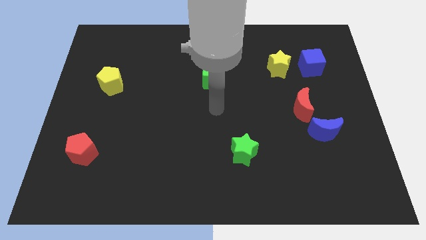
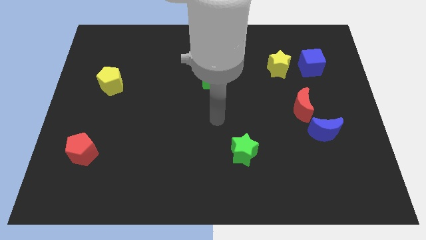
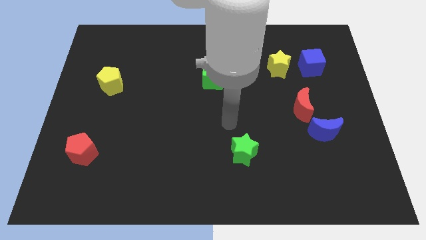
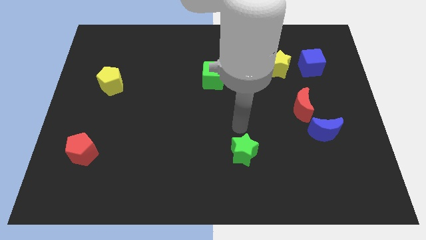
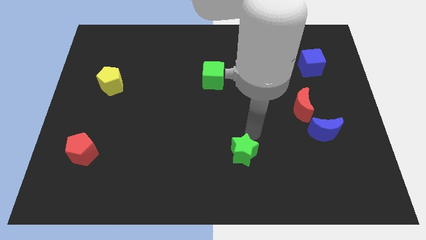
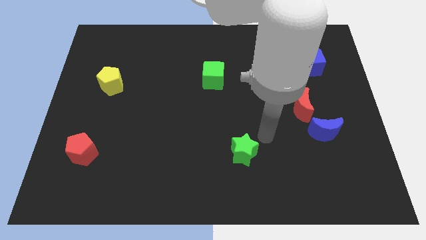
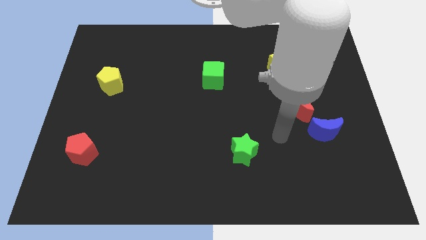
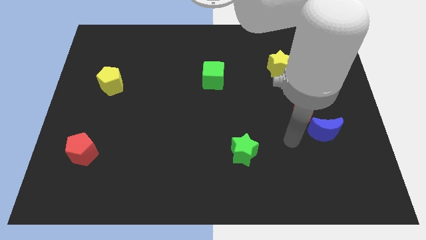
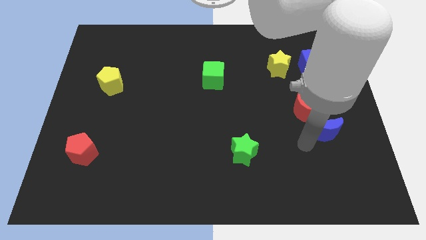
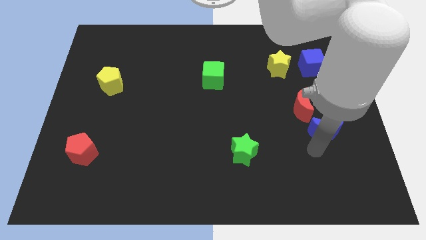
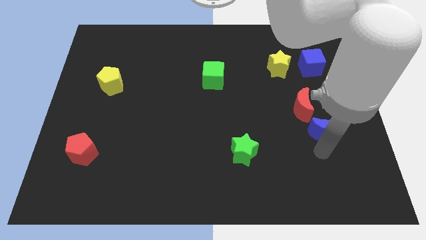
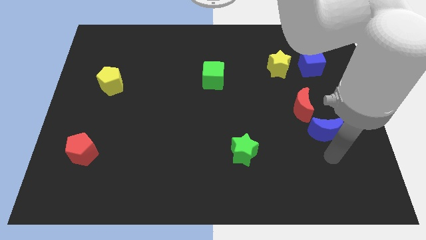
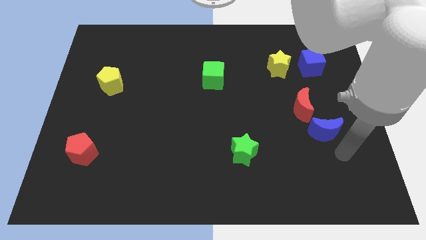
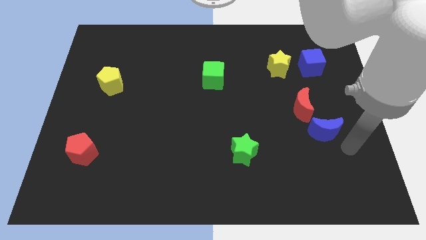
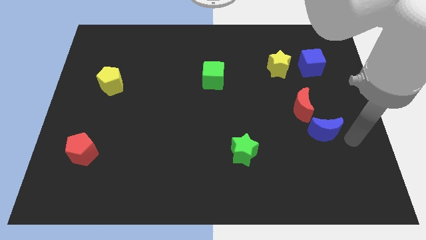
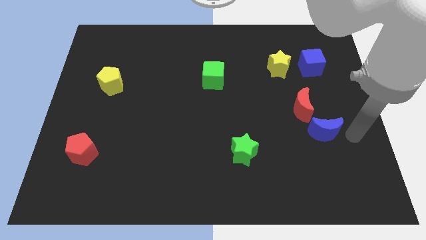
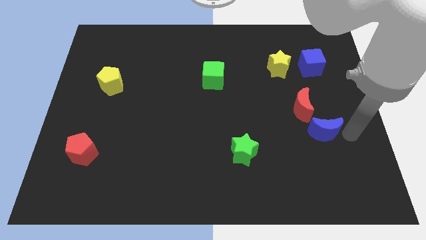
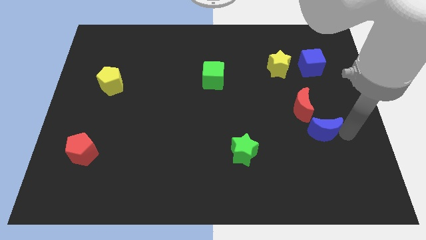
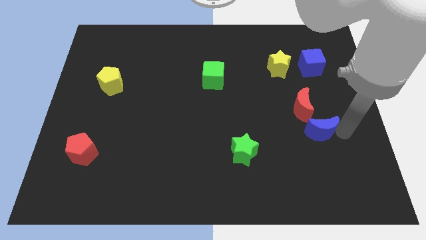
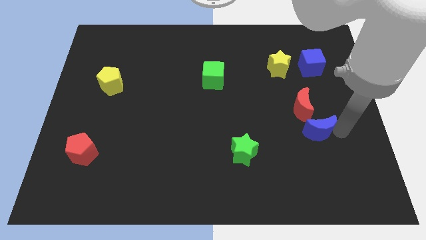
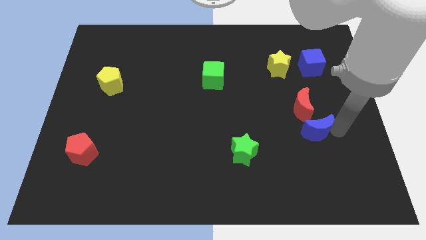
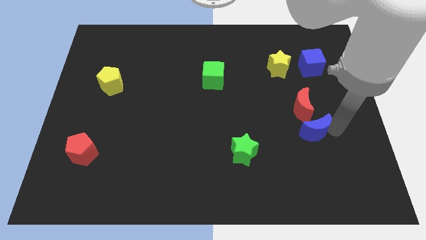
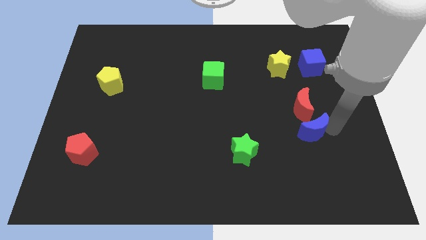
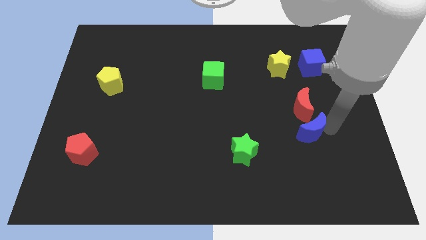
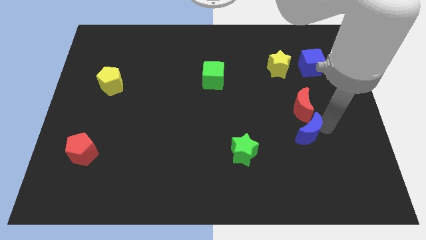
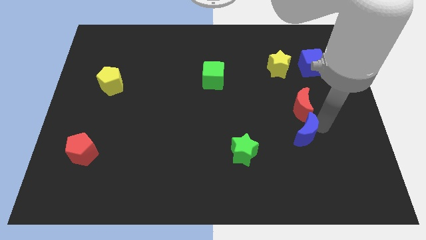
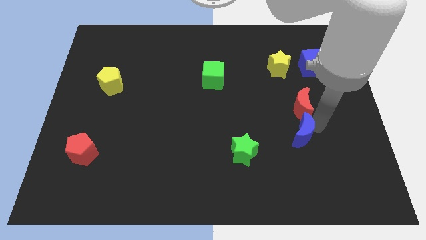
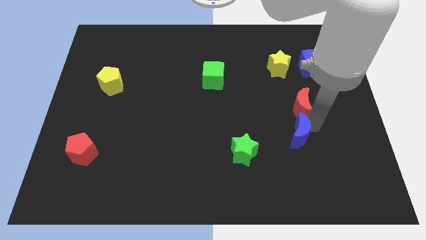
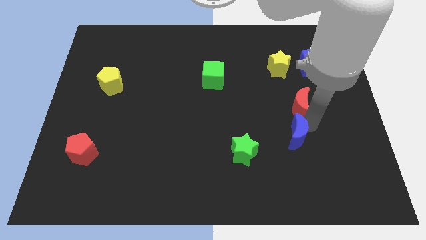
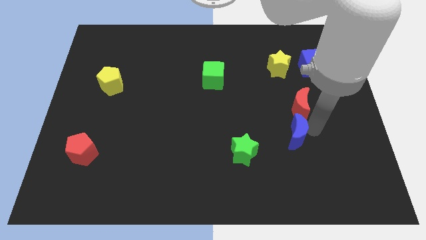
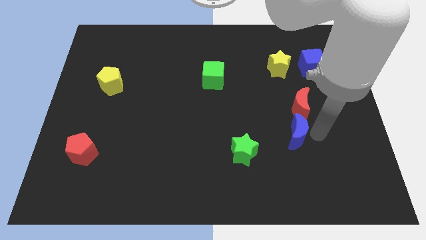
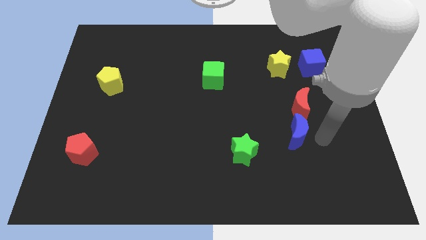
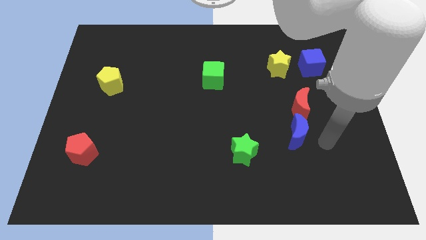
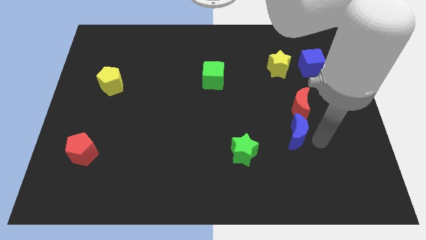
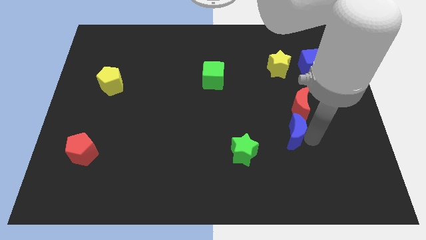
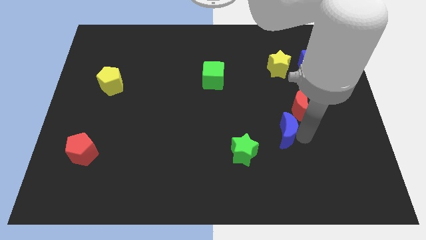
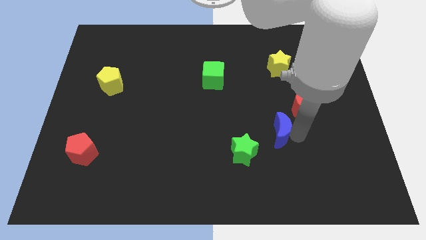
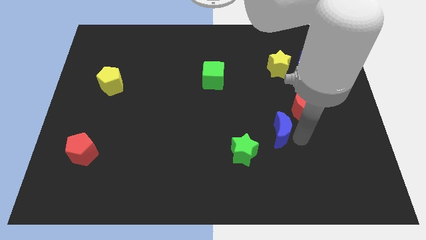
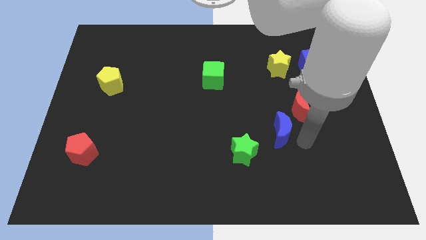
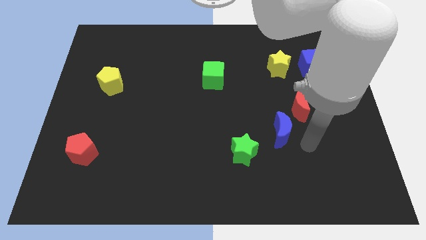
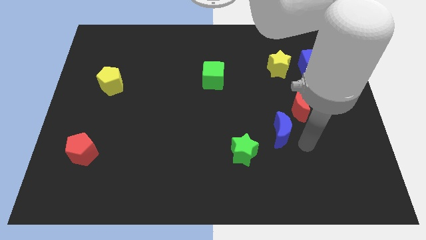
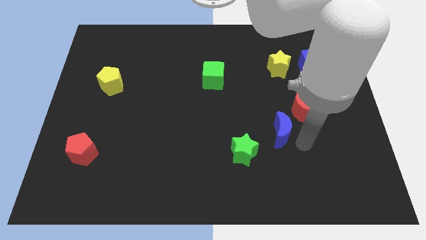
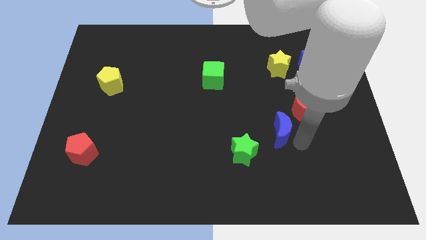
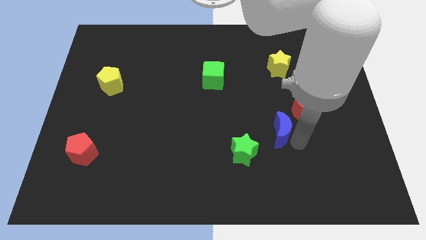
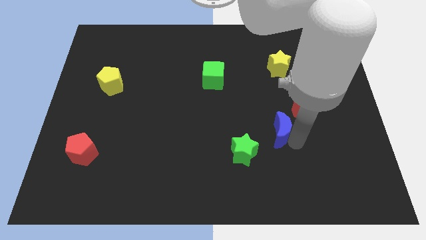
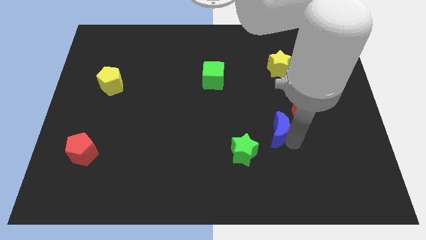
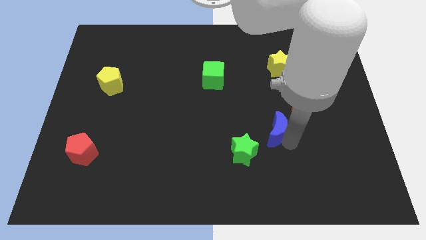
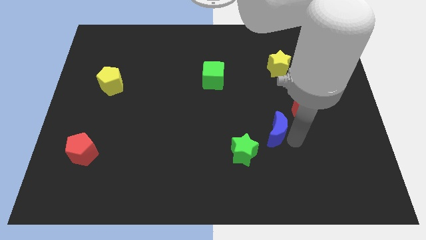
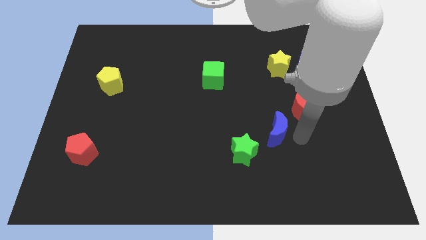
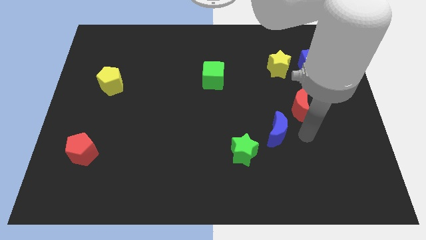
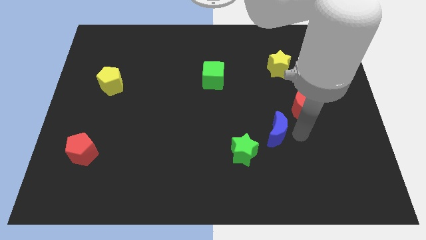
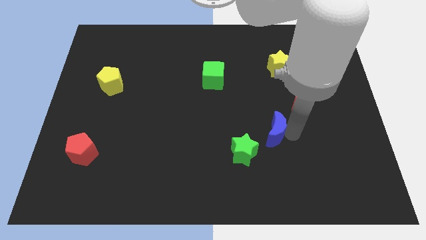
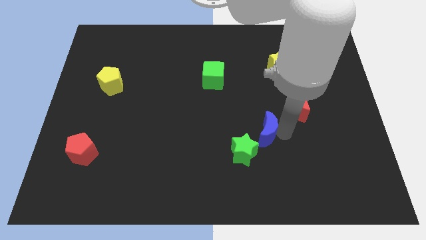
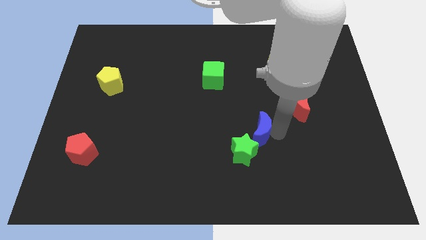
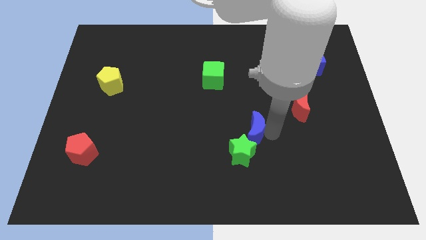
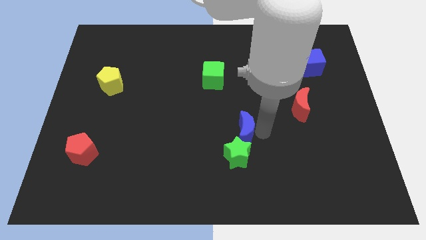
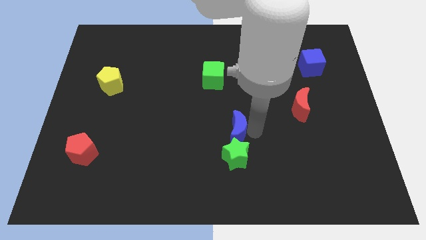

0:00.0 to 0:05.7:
put the blue moon to the top left of the green star

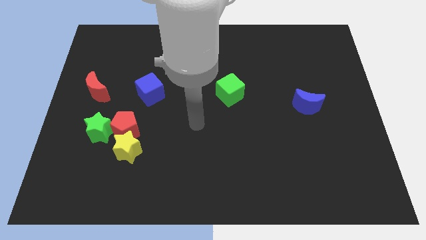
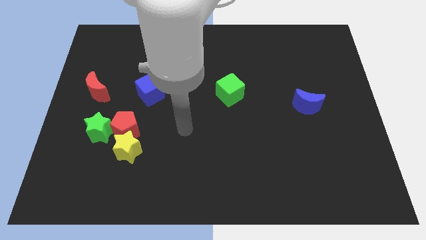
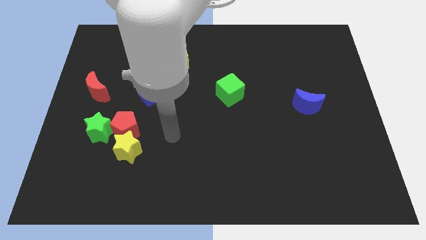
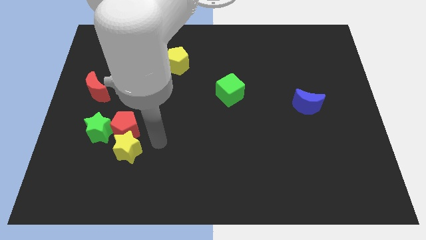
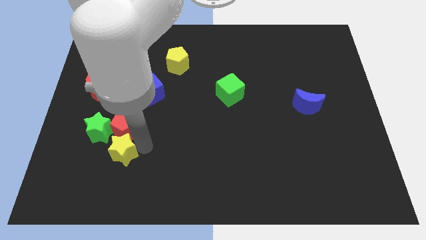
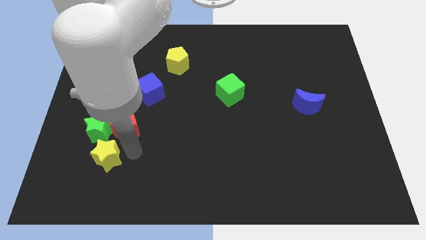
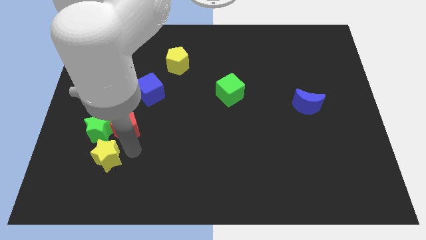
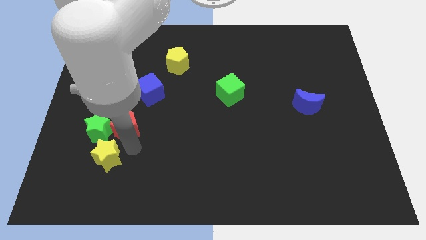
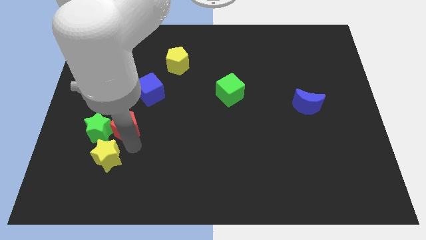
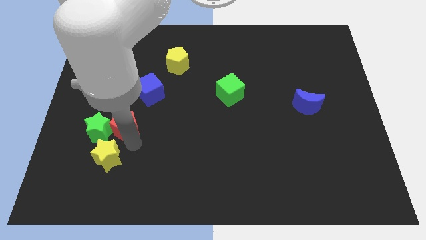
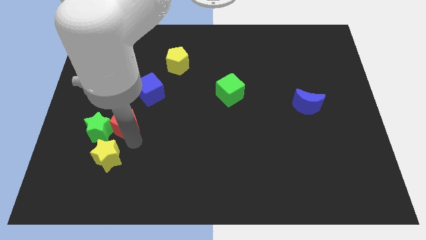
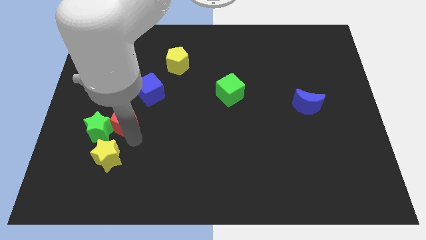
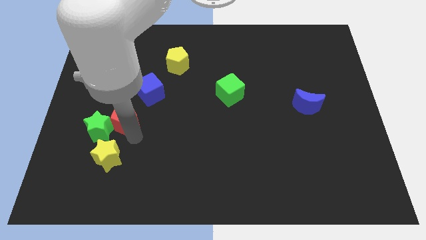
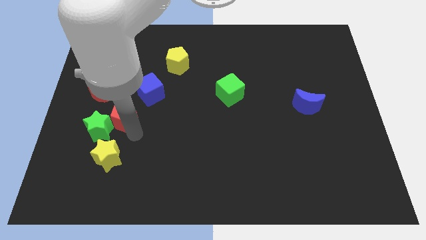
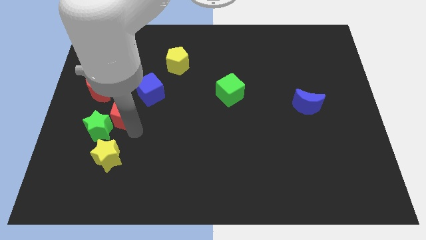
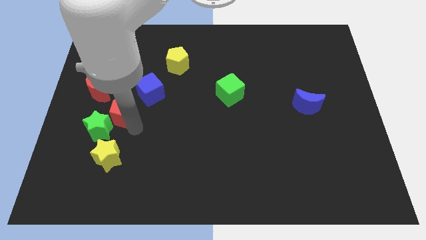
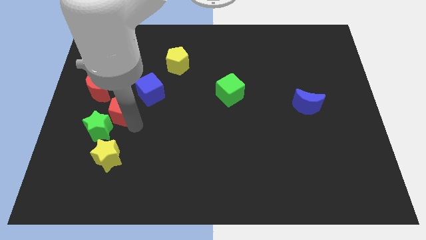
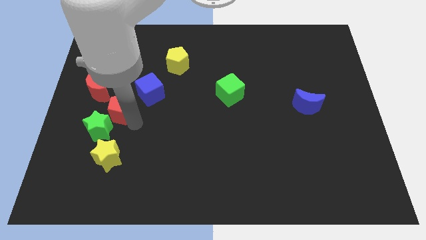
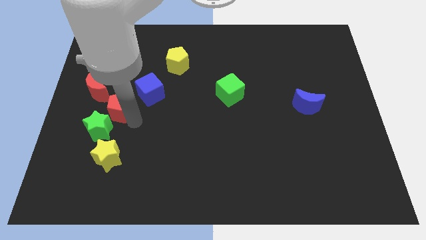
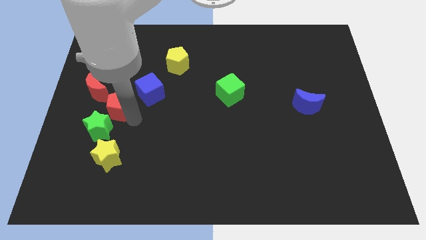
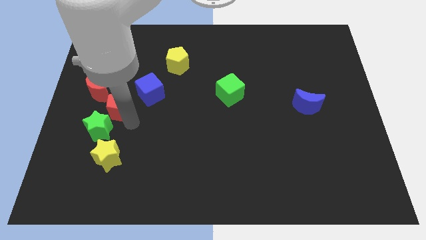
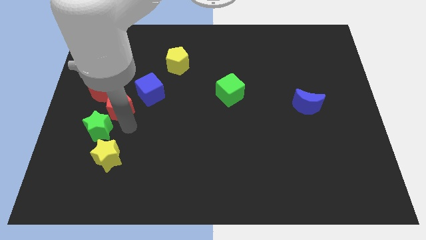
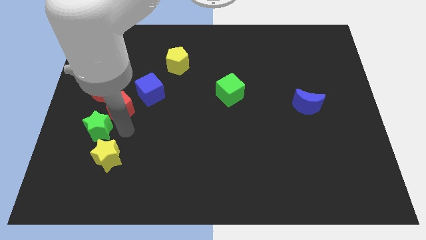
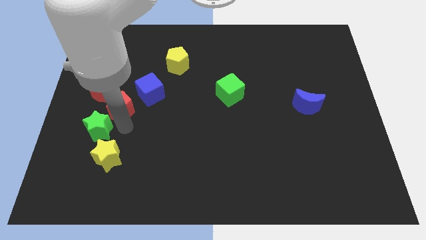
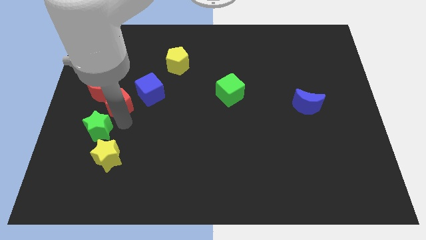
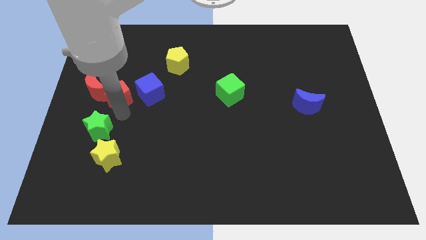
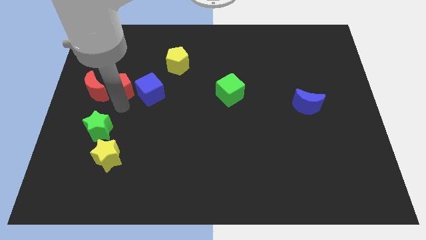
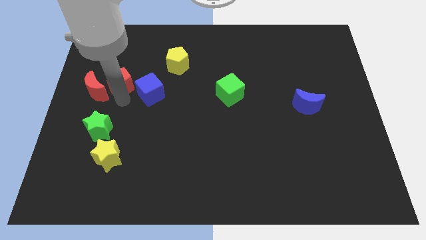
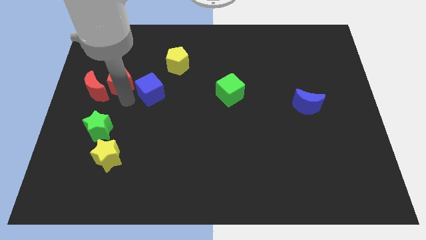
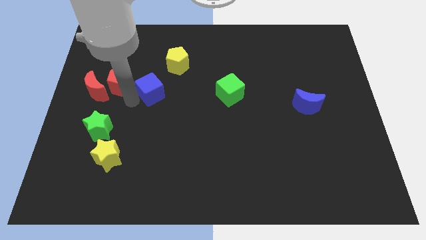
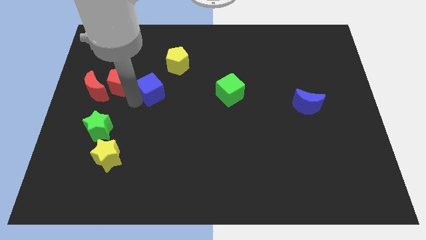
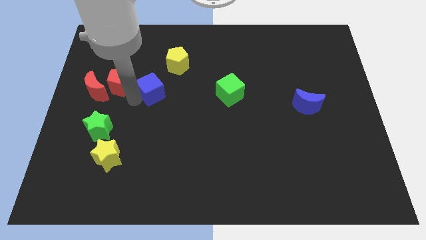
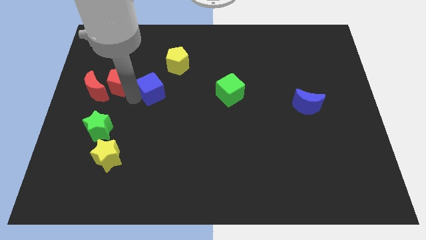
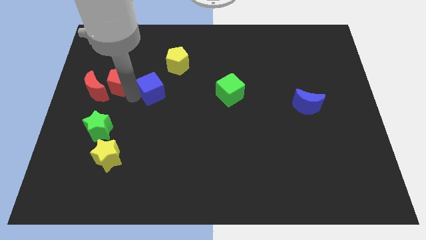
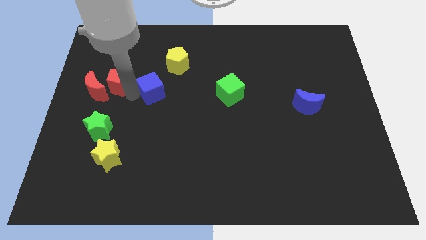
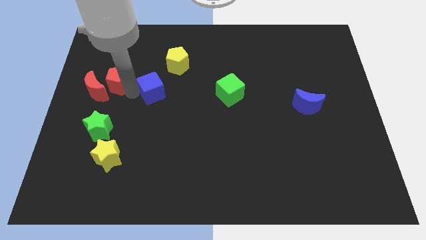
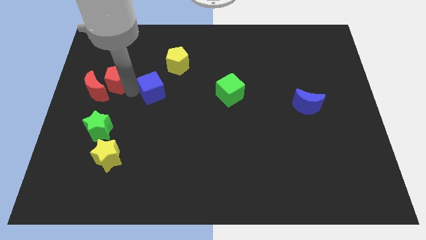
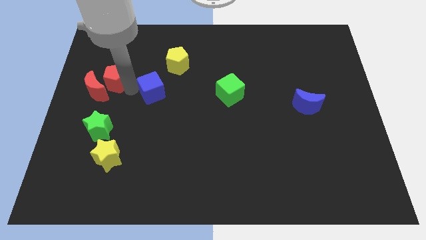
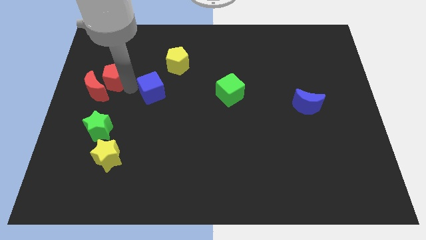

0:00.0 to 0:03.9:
put the red pentagon to the top of the red moon
